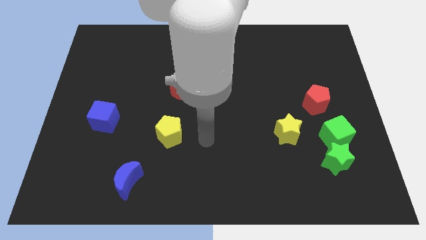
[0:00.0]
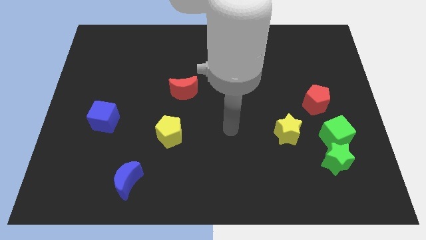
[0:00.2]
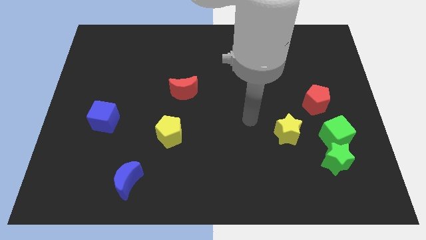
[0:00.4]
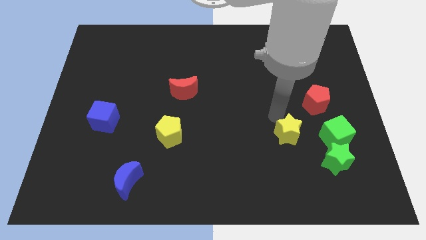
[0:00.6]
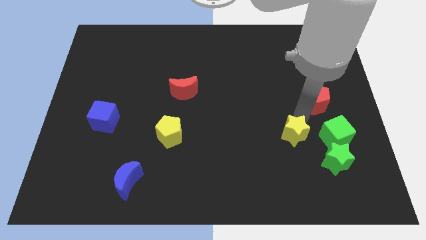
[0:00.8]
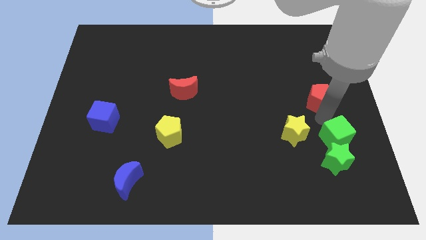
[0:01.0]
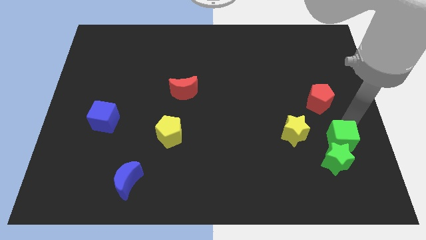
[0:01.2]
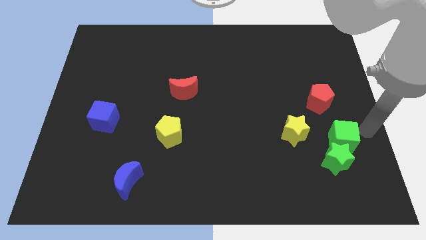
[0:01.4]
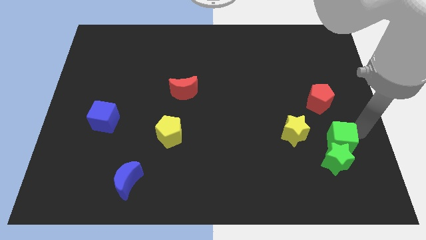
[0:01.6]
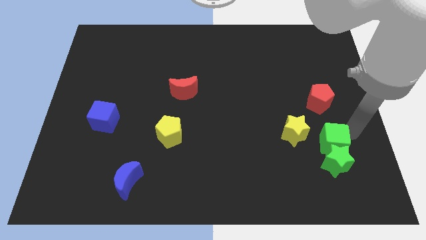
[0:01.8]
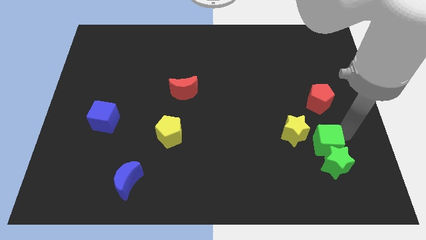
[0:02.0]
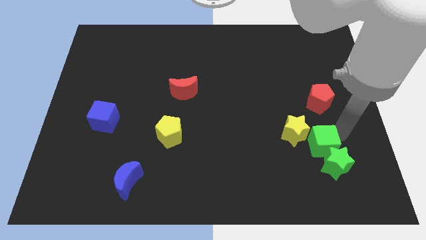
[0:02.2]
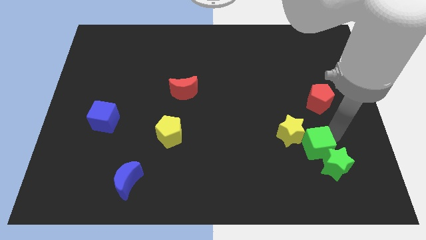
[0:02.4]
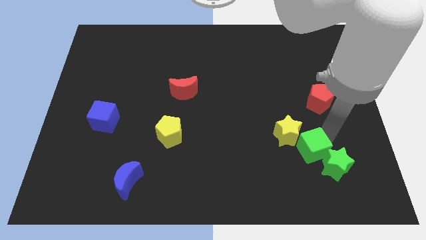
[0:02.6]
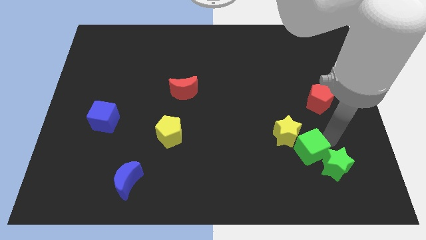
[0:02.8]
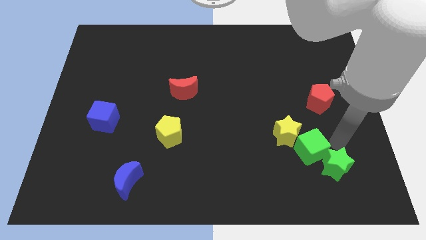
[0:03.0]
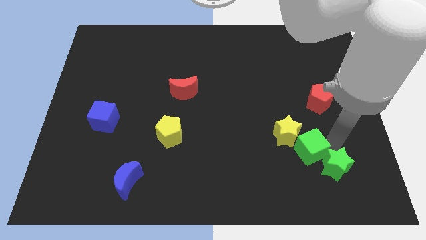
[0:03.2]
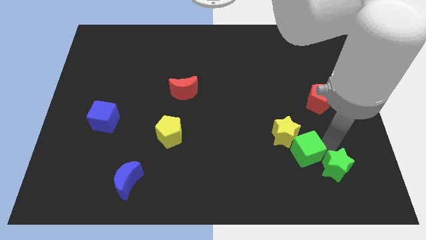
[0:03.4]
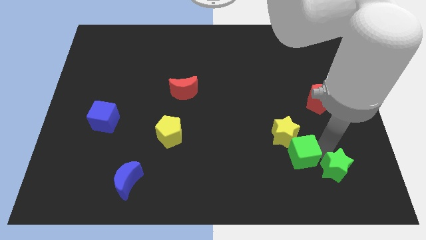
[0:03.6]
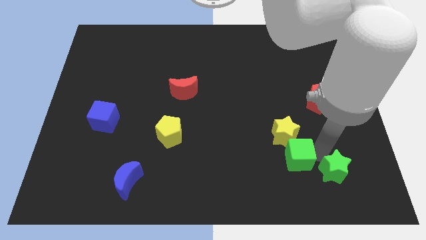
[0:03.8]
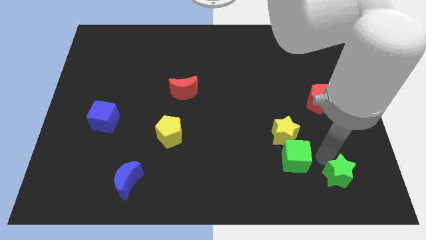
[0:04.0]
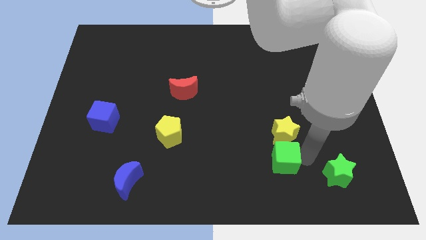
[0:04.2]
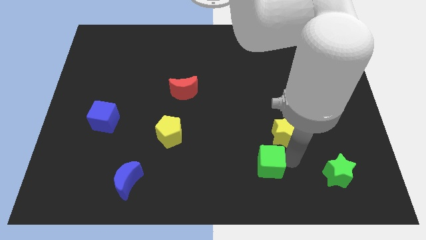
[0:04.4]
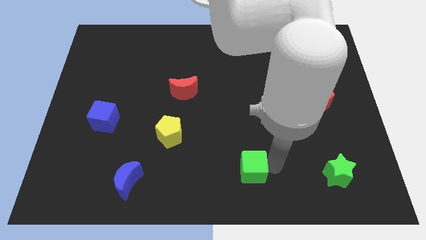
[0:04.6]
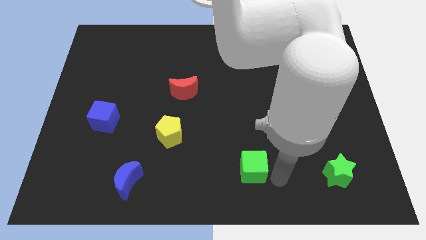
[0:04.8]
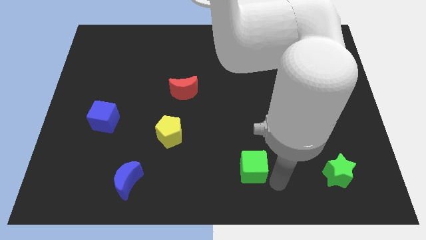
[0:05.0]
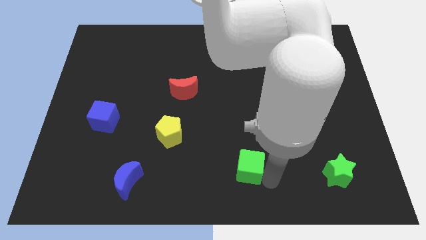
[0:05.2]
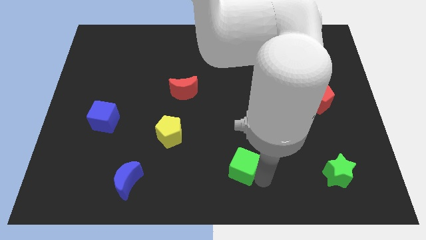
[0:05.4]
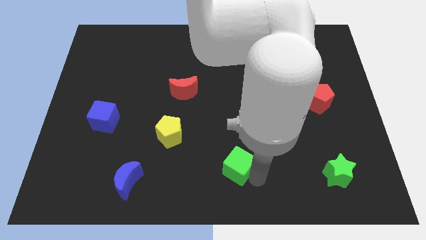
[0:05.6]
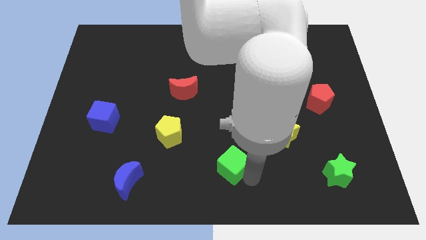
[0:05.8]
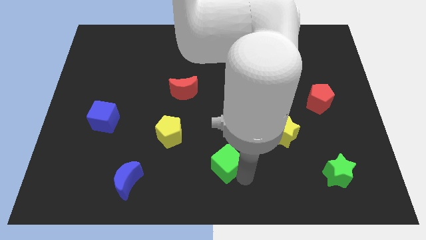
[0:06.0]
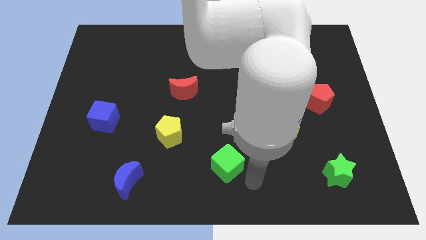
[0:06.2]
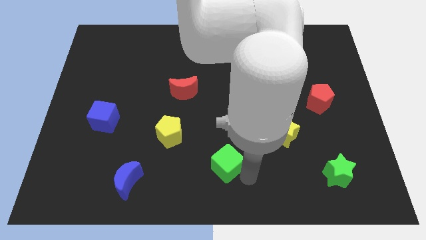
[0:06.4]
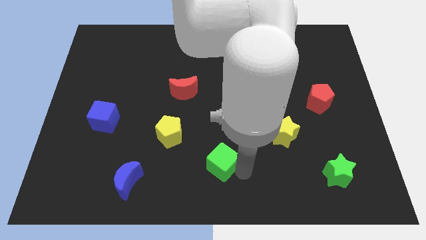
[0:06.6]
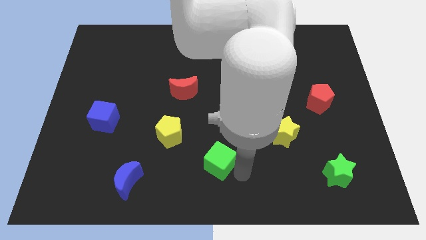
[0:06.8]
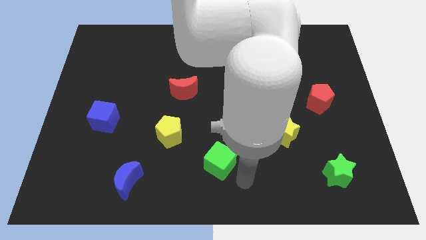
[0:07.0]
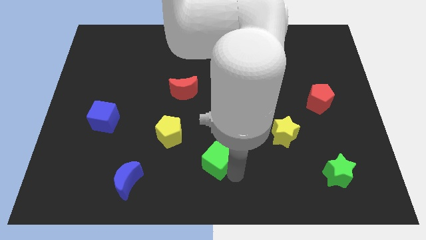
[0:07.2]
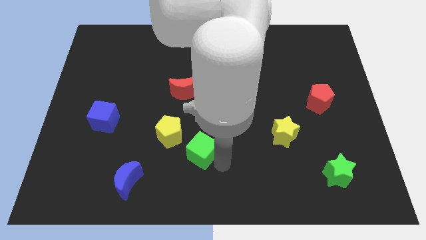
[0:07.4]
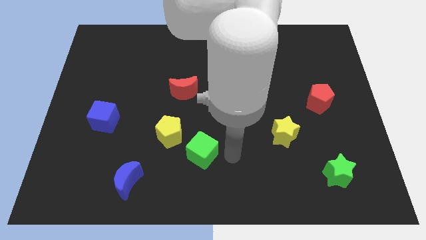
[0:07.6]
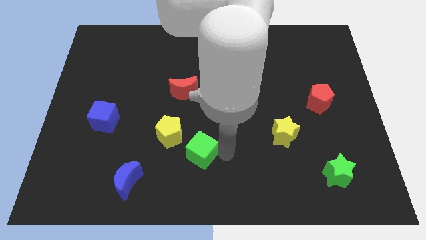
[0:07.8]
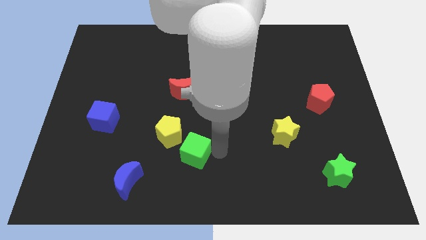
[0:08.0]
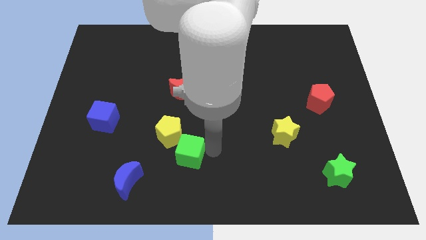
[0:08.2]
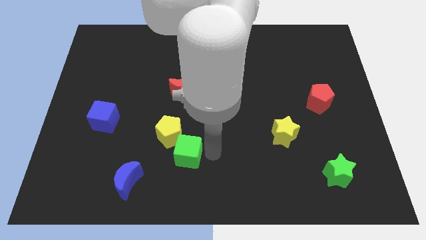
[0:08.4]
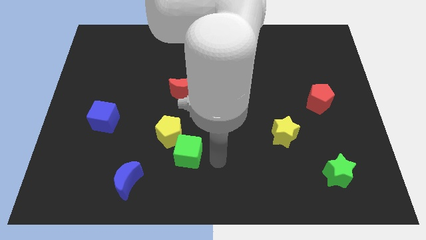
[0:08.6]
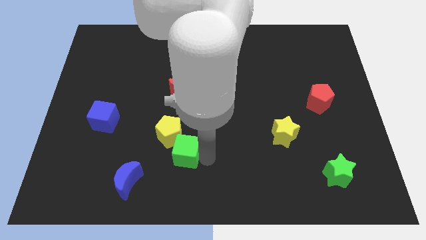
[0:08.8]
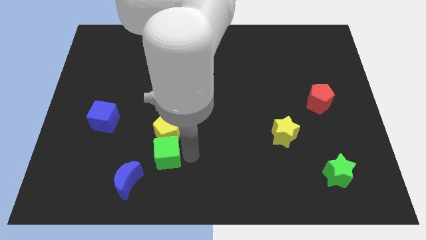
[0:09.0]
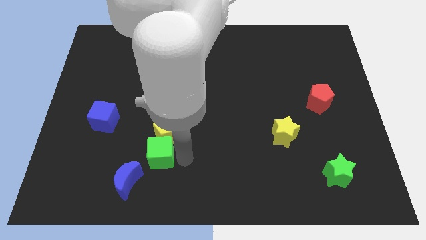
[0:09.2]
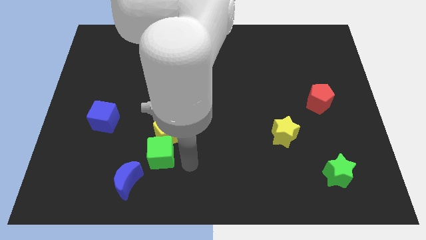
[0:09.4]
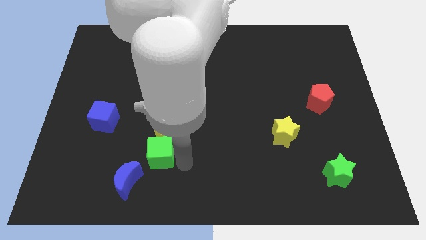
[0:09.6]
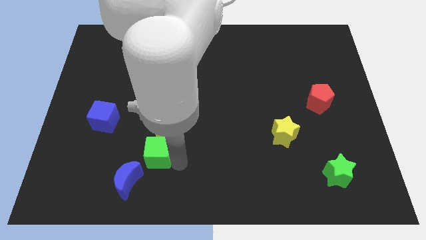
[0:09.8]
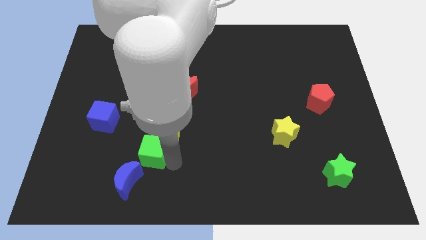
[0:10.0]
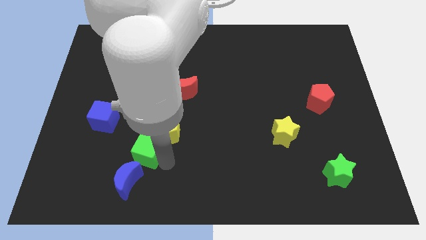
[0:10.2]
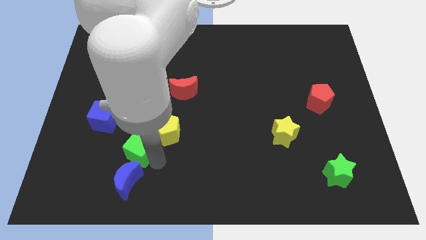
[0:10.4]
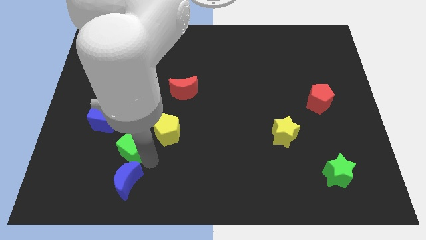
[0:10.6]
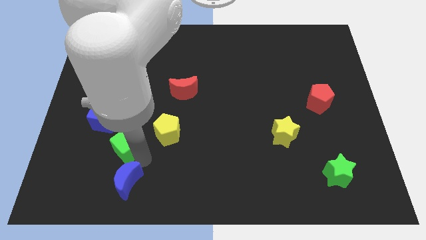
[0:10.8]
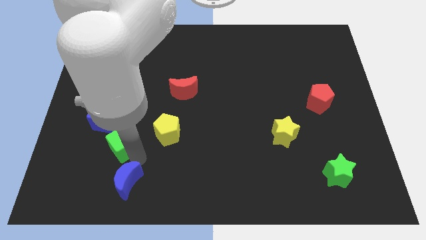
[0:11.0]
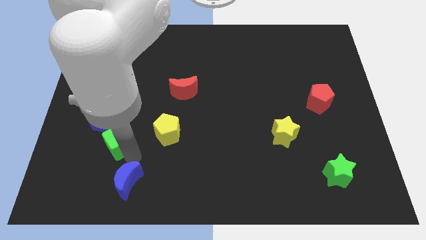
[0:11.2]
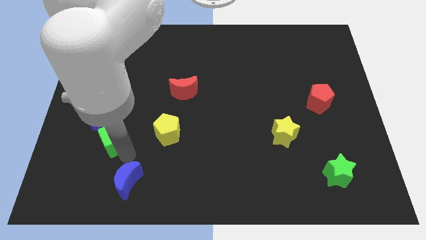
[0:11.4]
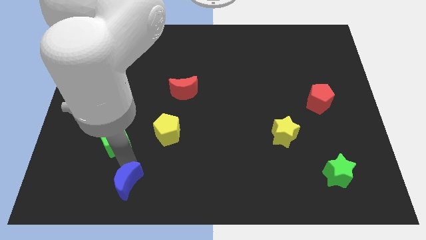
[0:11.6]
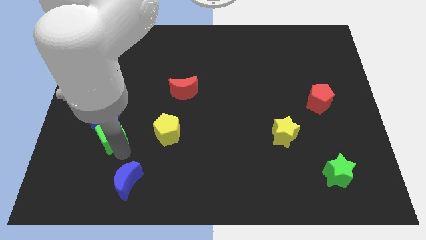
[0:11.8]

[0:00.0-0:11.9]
push the green cube towards the blue cube

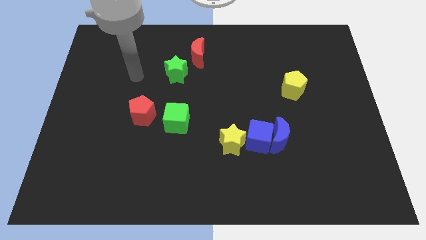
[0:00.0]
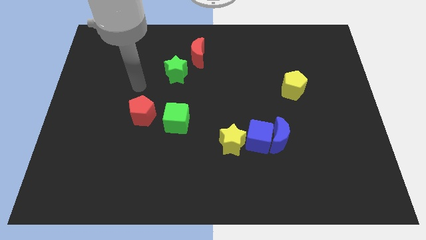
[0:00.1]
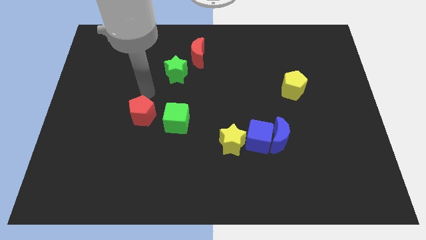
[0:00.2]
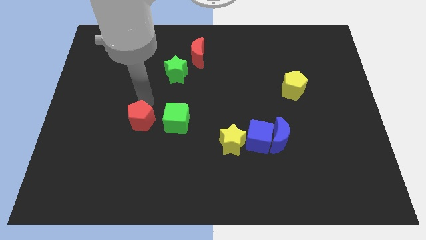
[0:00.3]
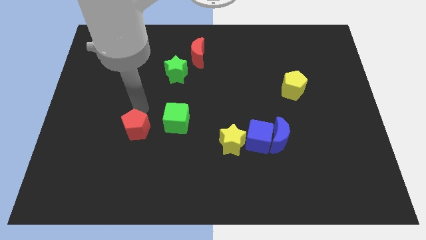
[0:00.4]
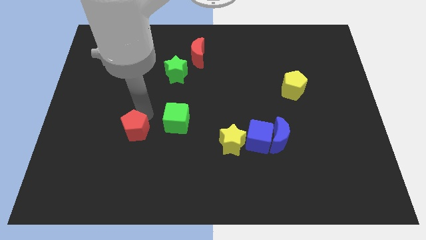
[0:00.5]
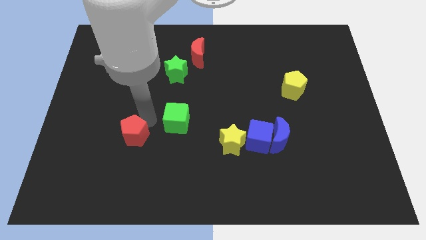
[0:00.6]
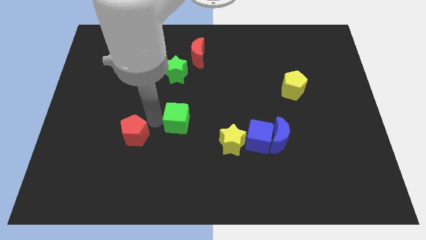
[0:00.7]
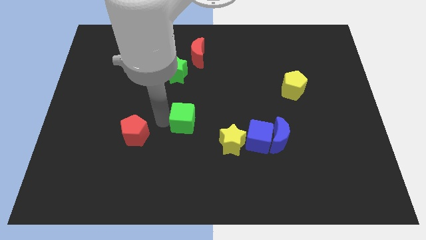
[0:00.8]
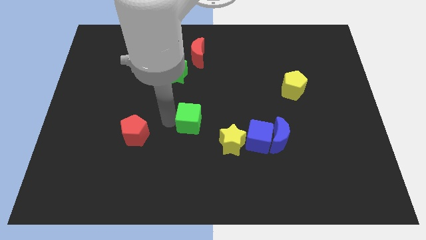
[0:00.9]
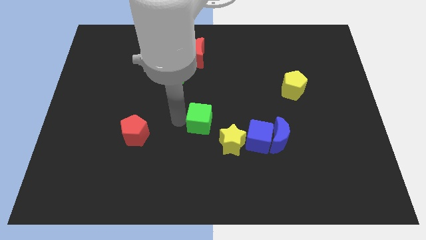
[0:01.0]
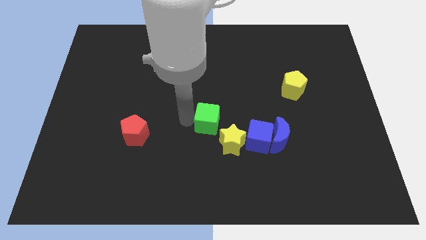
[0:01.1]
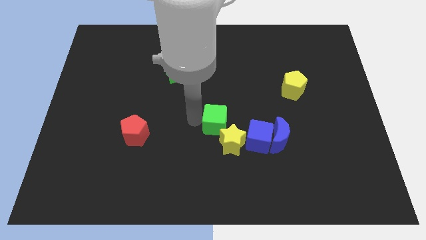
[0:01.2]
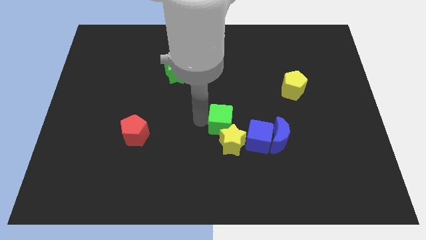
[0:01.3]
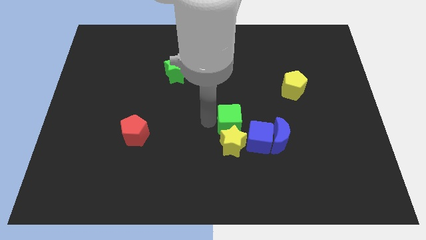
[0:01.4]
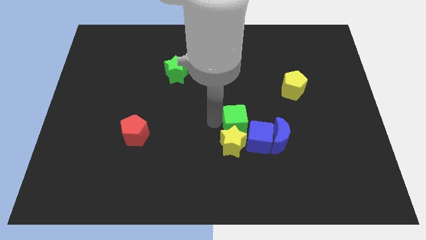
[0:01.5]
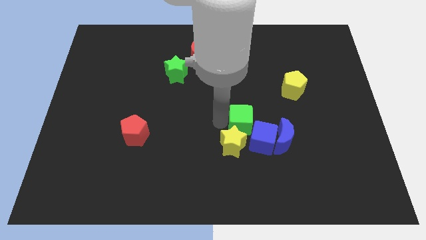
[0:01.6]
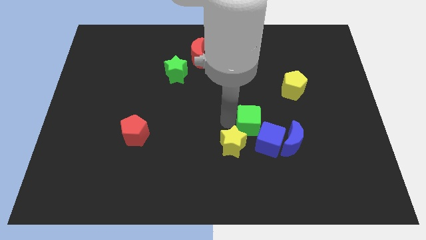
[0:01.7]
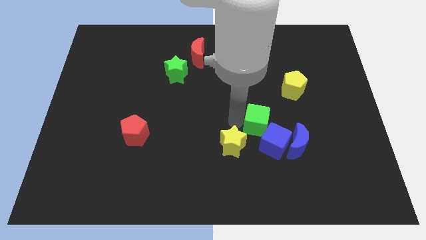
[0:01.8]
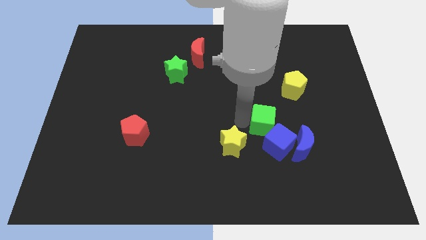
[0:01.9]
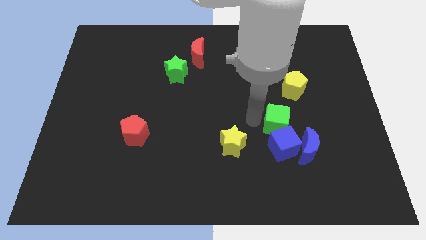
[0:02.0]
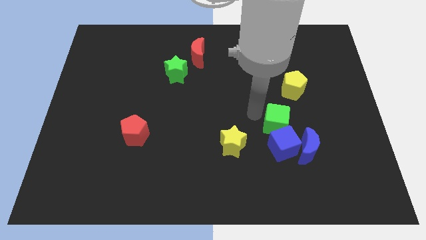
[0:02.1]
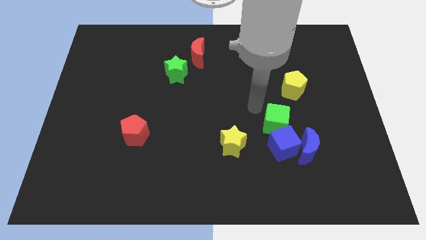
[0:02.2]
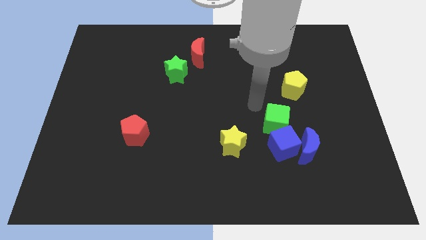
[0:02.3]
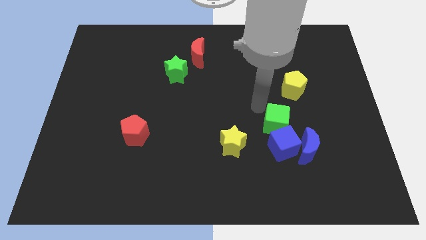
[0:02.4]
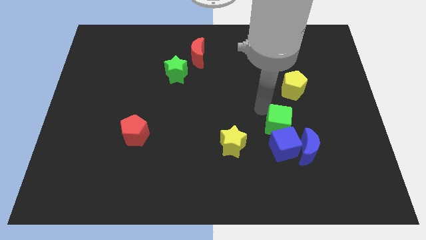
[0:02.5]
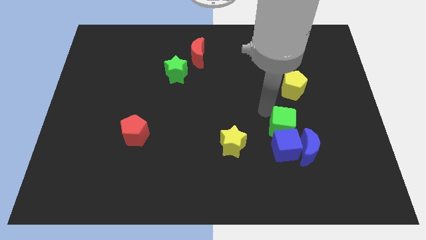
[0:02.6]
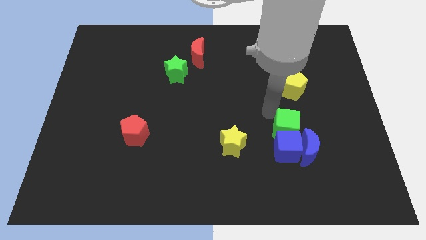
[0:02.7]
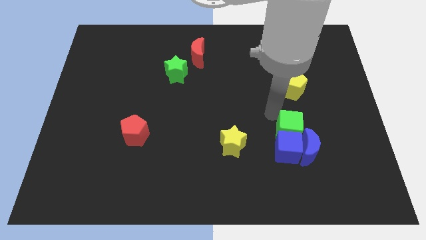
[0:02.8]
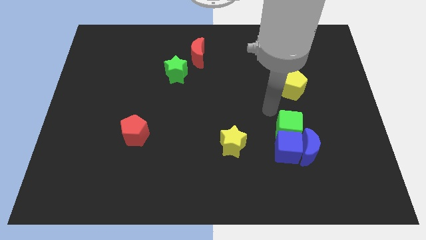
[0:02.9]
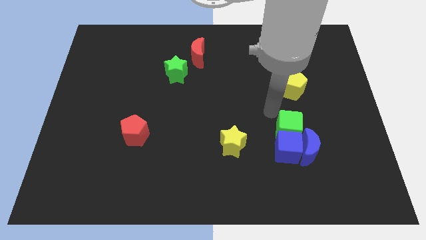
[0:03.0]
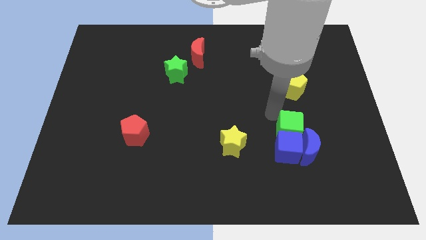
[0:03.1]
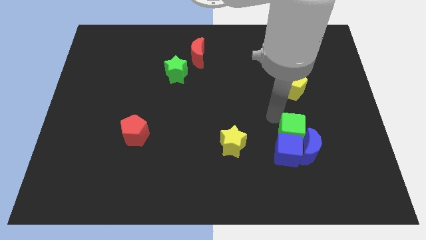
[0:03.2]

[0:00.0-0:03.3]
move the green cube to the blue moon
